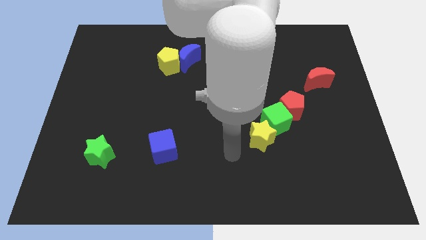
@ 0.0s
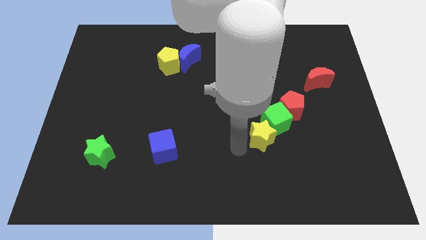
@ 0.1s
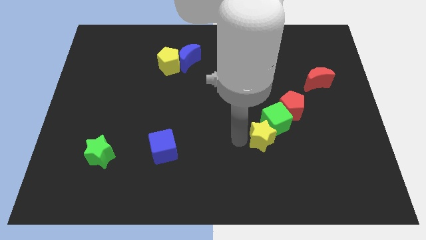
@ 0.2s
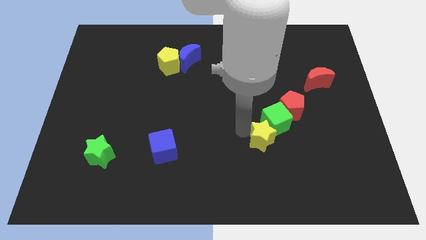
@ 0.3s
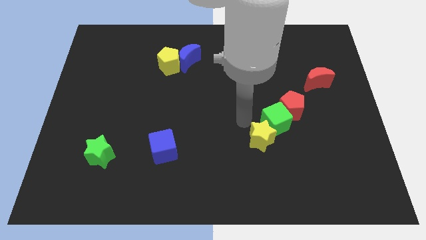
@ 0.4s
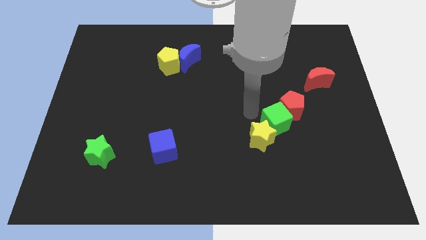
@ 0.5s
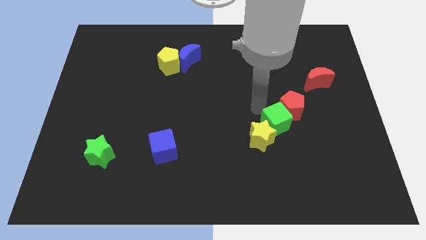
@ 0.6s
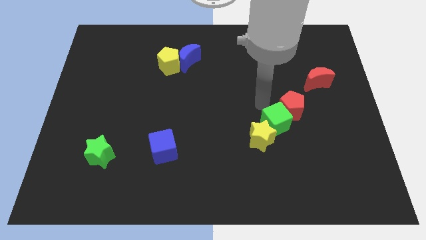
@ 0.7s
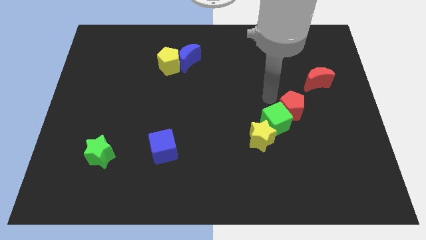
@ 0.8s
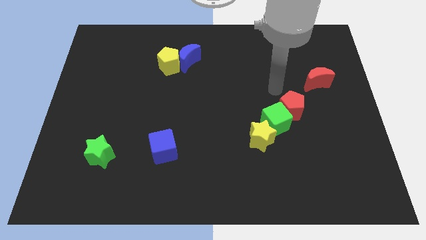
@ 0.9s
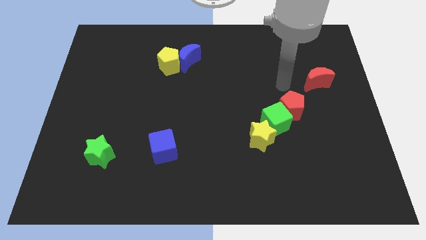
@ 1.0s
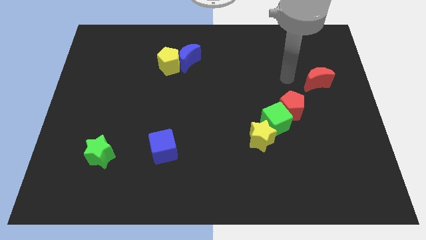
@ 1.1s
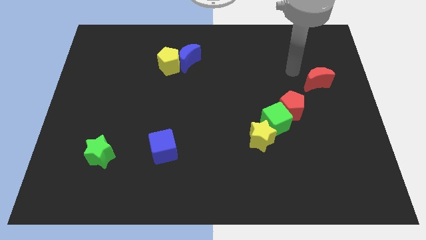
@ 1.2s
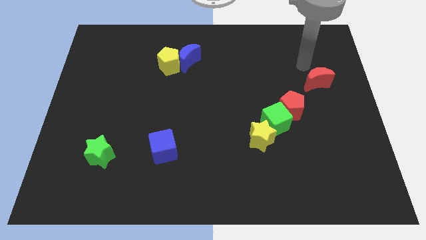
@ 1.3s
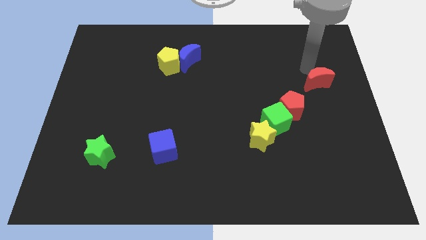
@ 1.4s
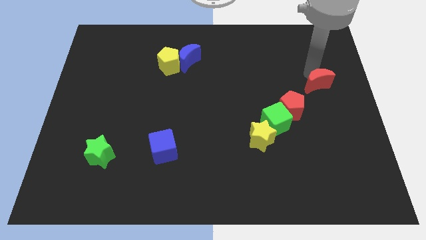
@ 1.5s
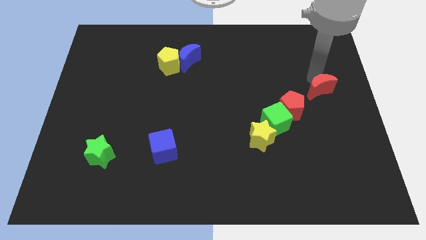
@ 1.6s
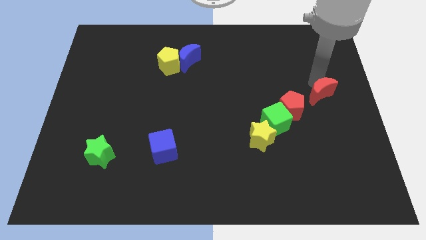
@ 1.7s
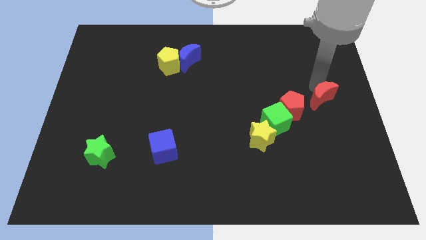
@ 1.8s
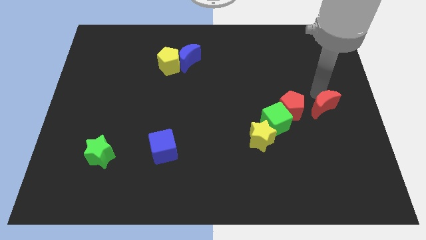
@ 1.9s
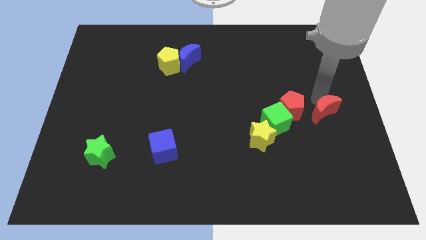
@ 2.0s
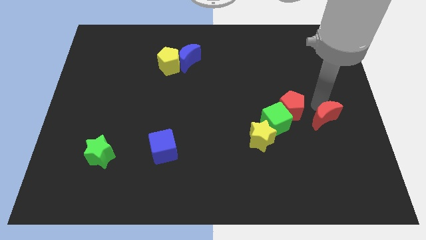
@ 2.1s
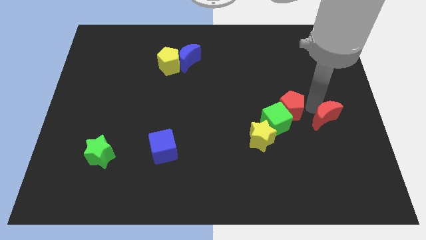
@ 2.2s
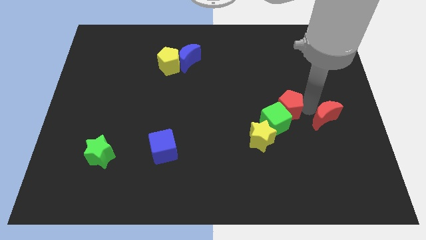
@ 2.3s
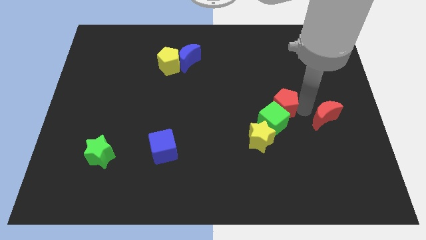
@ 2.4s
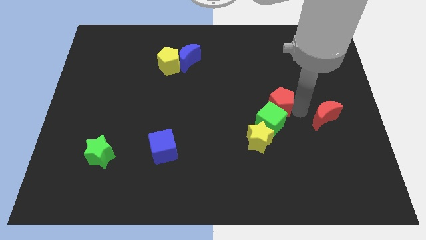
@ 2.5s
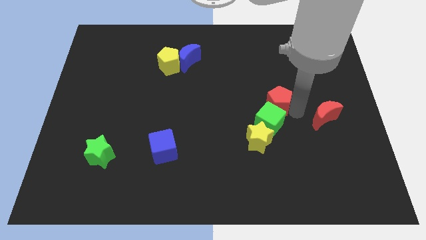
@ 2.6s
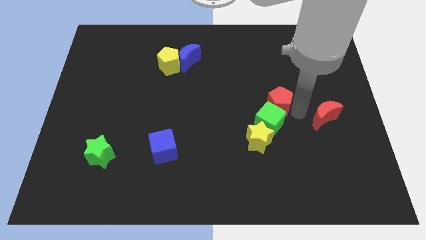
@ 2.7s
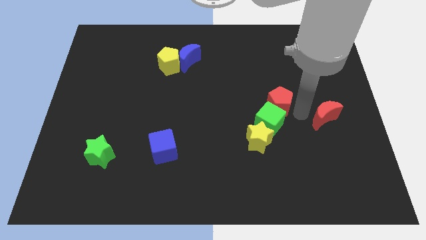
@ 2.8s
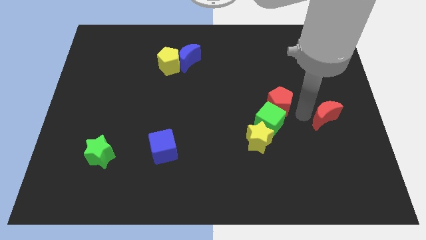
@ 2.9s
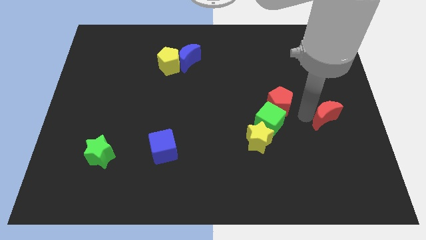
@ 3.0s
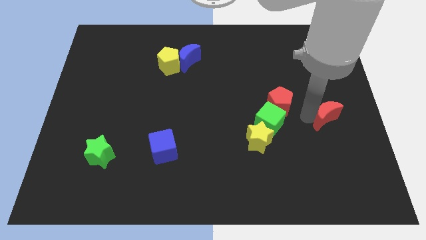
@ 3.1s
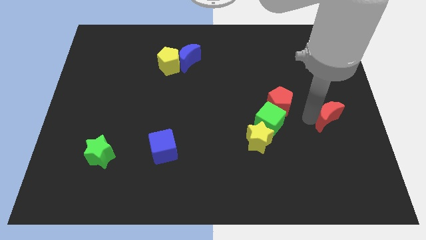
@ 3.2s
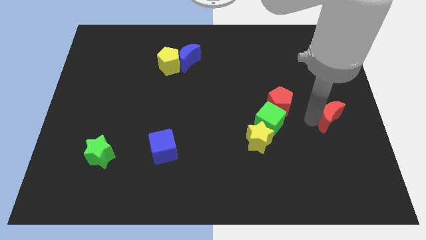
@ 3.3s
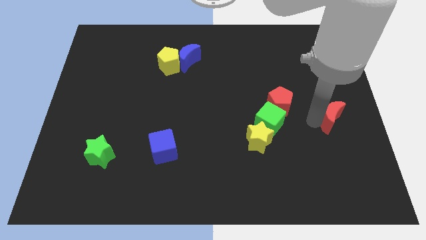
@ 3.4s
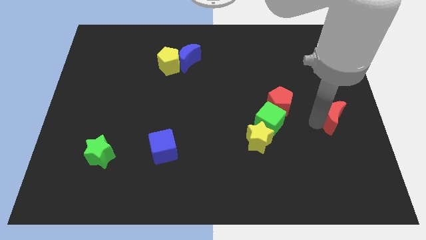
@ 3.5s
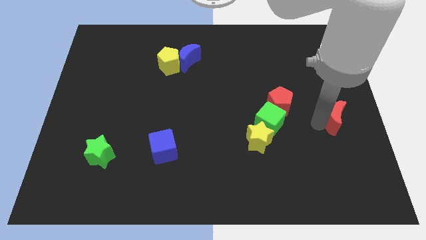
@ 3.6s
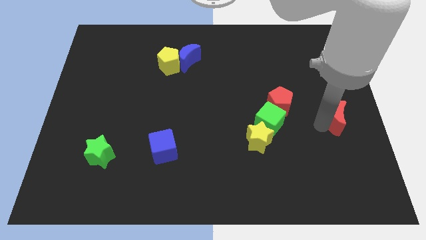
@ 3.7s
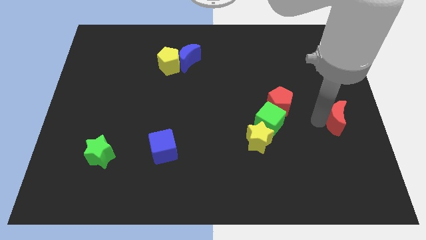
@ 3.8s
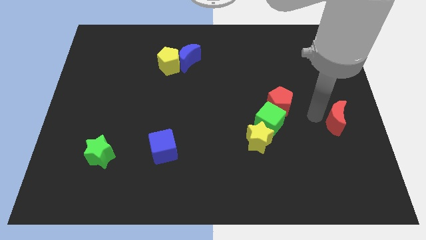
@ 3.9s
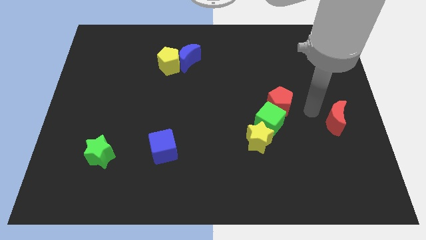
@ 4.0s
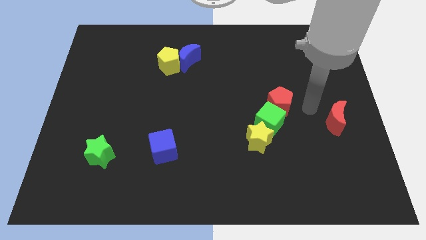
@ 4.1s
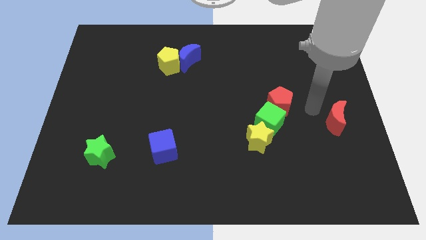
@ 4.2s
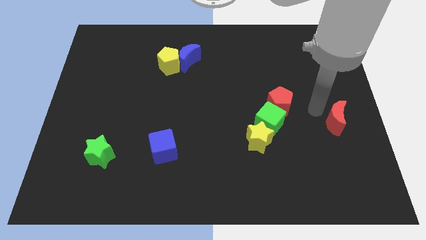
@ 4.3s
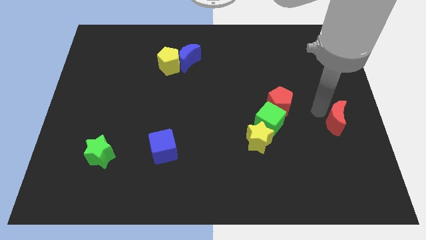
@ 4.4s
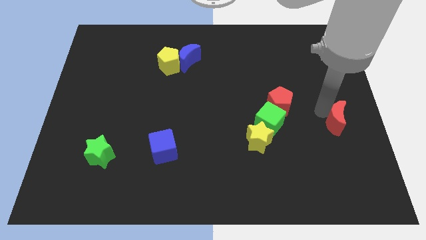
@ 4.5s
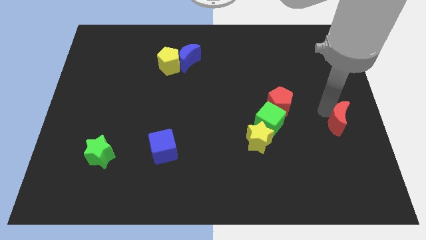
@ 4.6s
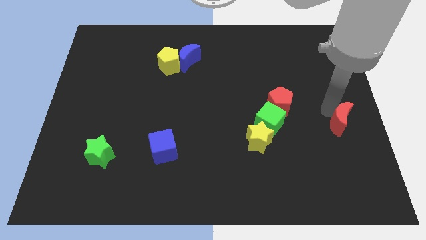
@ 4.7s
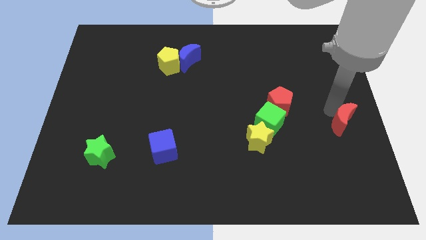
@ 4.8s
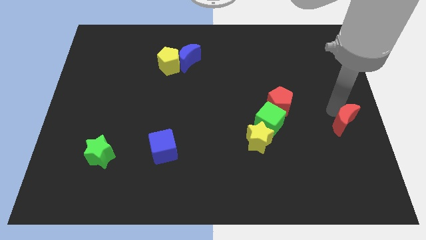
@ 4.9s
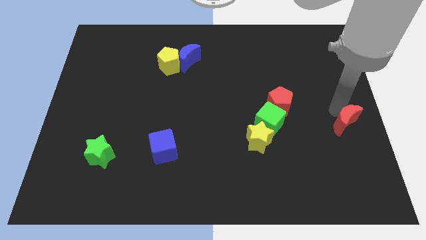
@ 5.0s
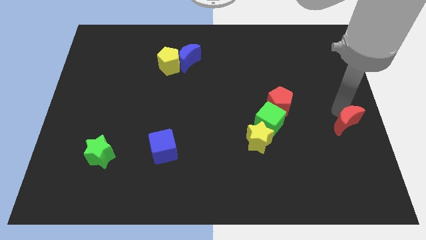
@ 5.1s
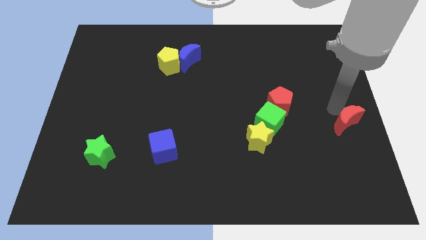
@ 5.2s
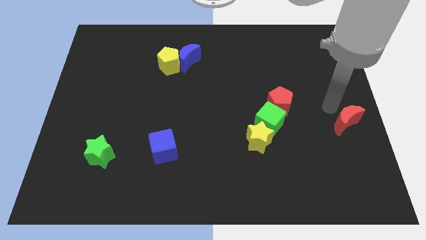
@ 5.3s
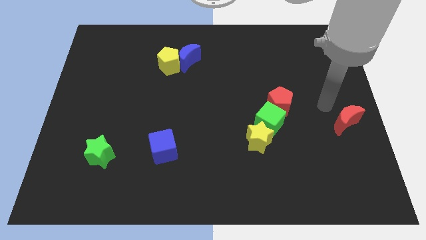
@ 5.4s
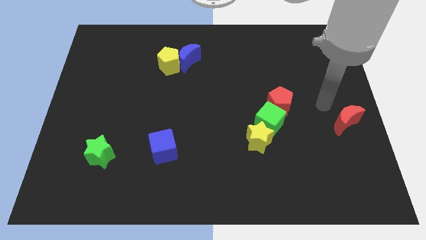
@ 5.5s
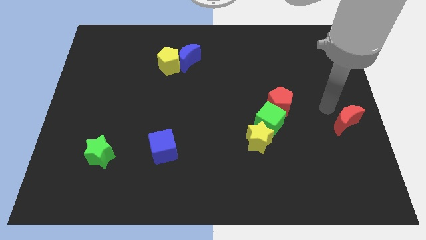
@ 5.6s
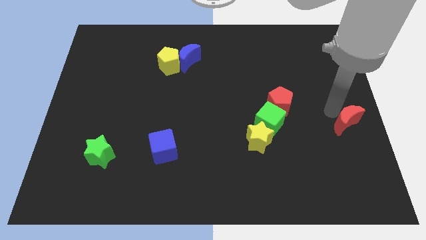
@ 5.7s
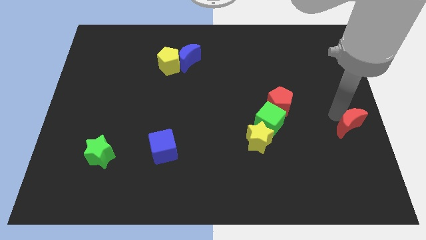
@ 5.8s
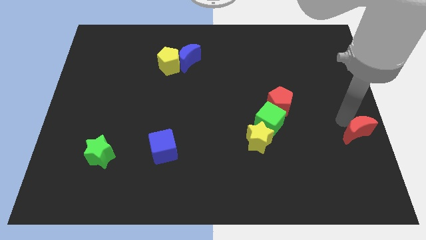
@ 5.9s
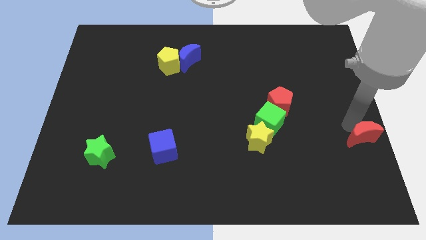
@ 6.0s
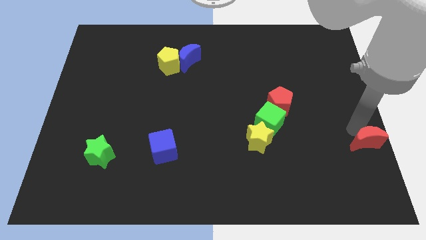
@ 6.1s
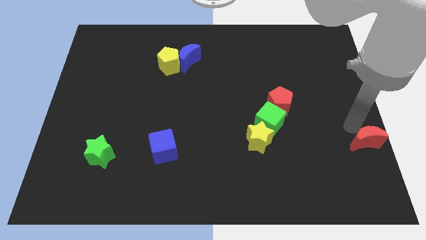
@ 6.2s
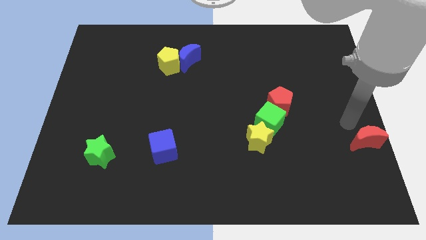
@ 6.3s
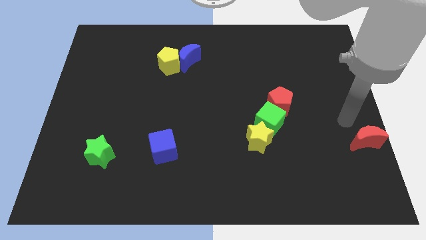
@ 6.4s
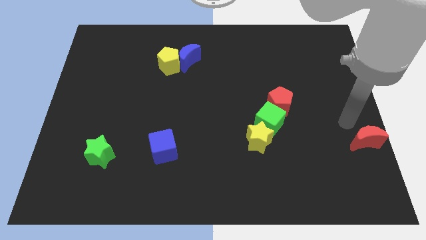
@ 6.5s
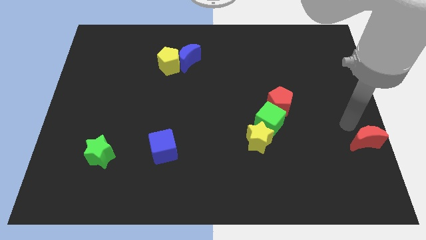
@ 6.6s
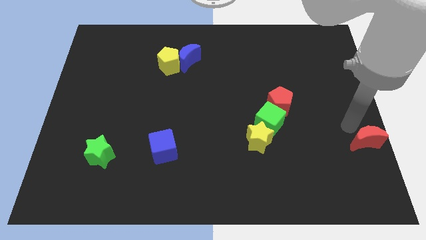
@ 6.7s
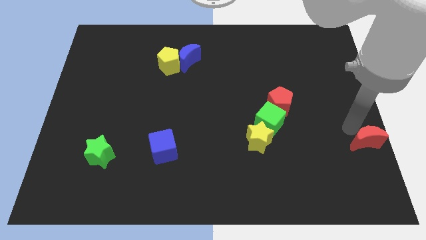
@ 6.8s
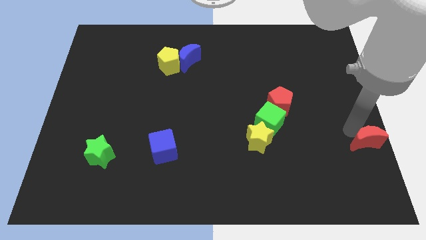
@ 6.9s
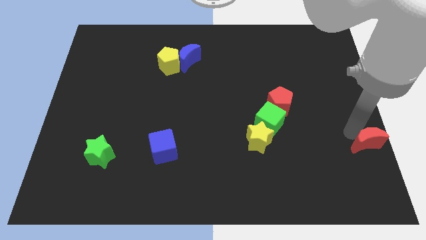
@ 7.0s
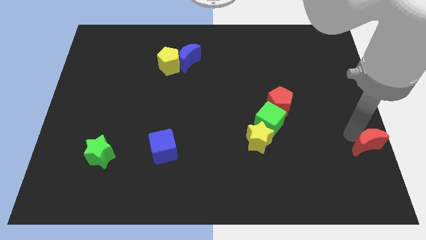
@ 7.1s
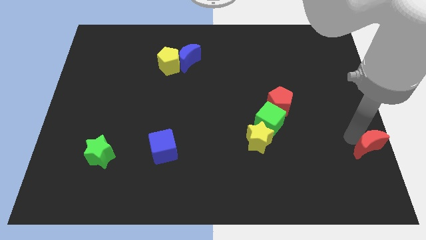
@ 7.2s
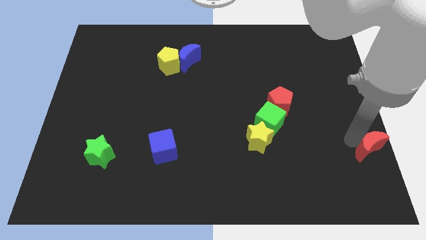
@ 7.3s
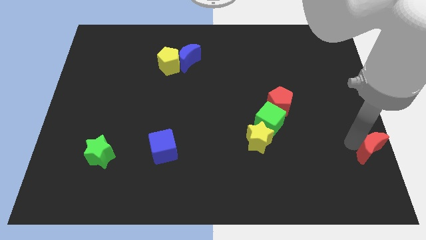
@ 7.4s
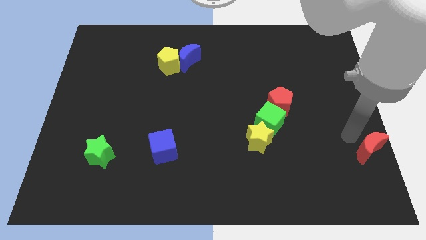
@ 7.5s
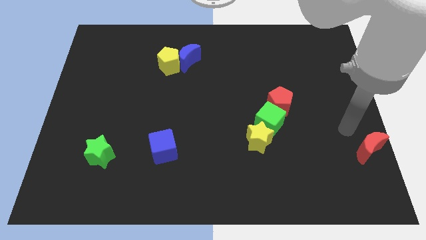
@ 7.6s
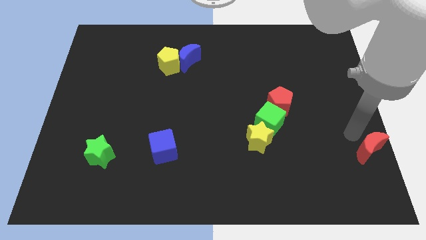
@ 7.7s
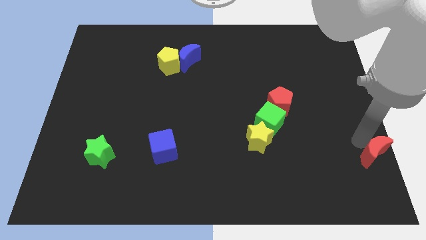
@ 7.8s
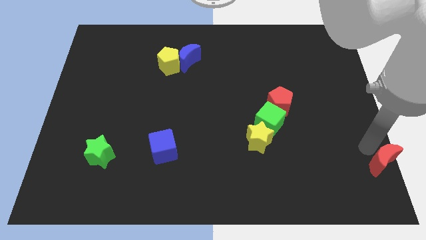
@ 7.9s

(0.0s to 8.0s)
move the red moon to the bottom right of the board
